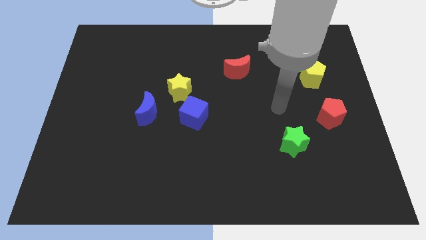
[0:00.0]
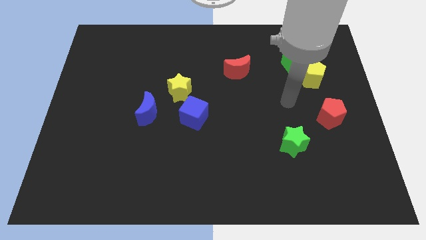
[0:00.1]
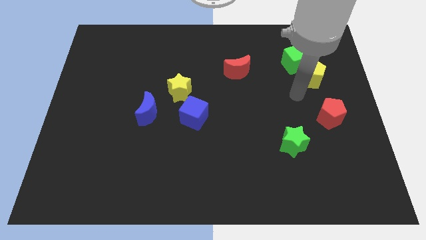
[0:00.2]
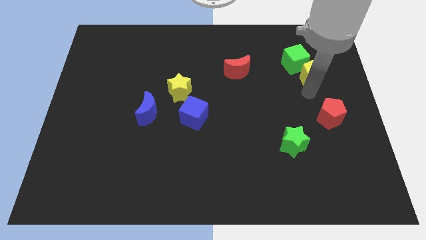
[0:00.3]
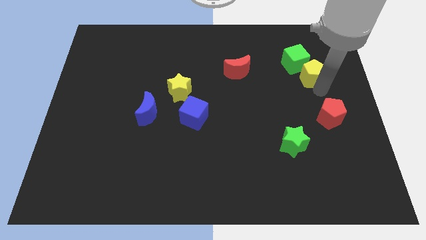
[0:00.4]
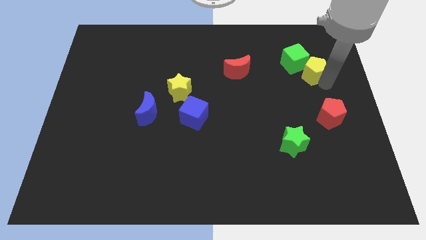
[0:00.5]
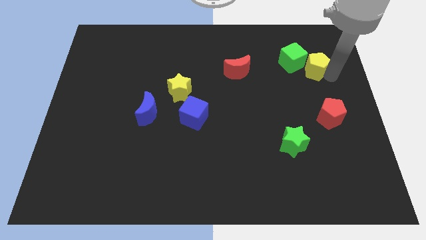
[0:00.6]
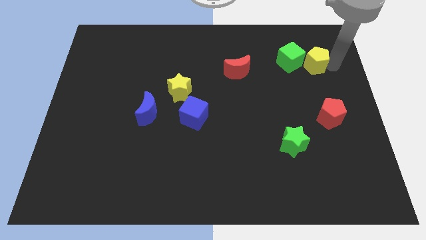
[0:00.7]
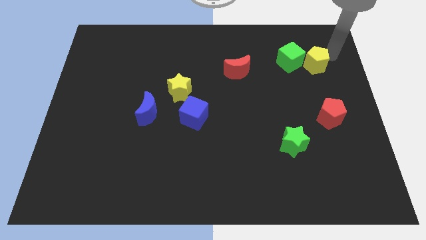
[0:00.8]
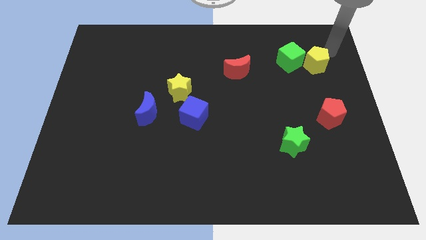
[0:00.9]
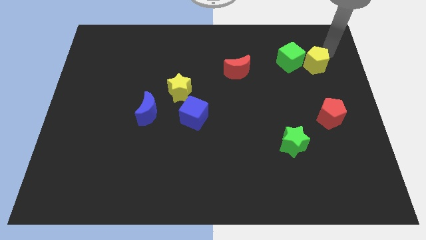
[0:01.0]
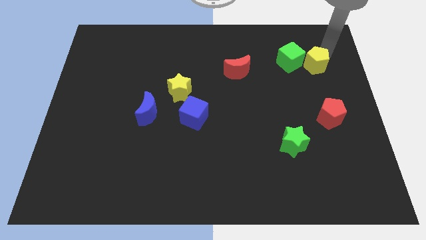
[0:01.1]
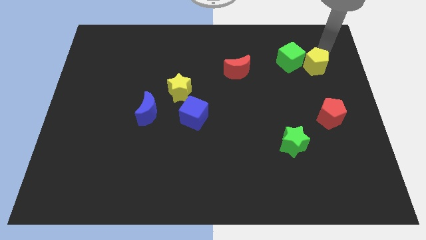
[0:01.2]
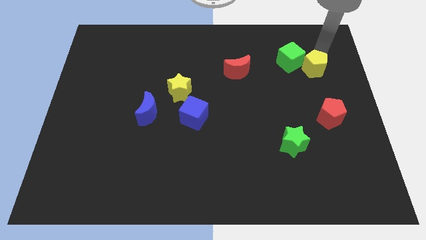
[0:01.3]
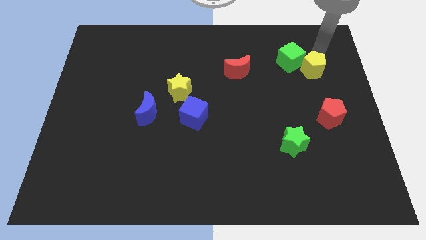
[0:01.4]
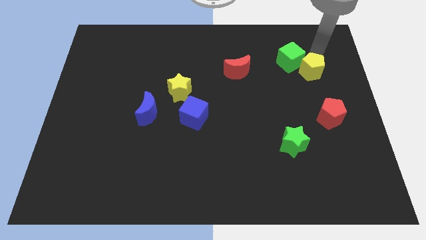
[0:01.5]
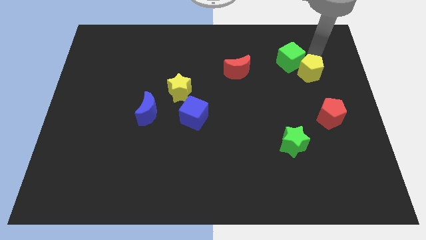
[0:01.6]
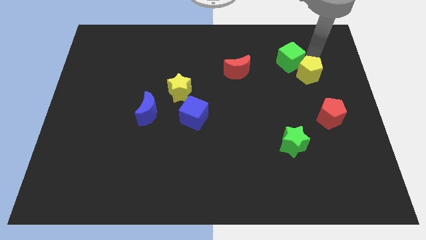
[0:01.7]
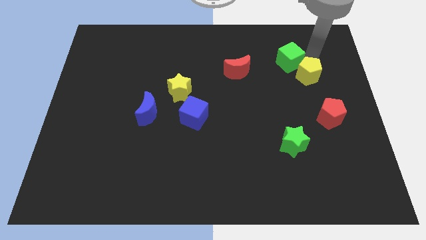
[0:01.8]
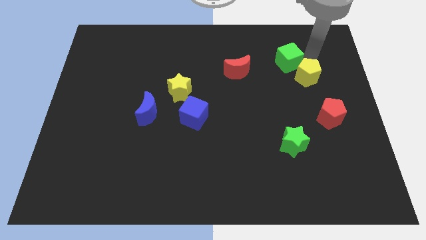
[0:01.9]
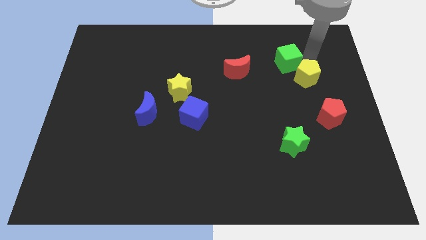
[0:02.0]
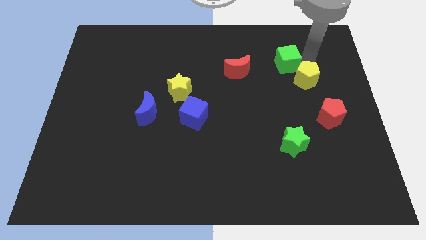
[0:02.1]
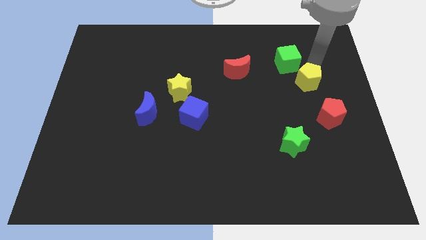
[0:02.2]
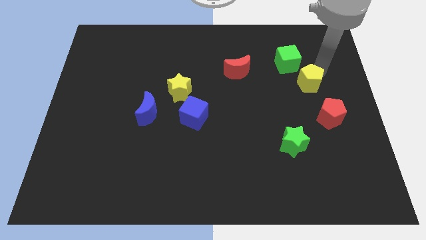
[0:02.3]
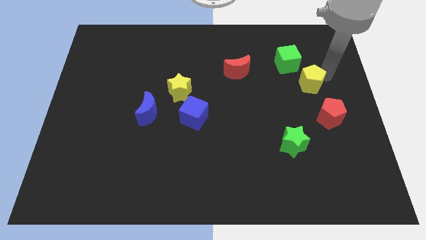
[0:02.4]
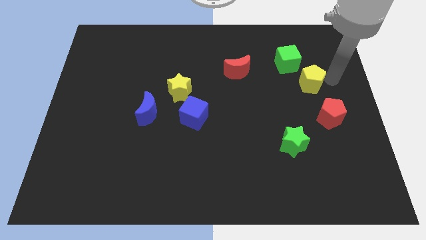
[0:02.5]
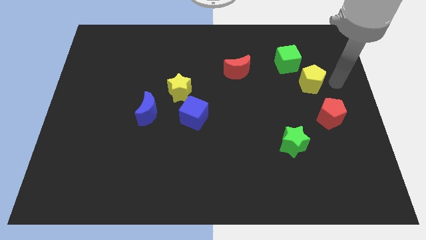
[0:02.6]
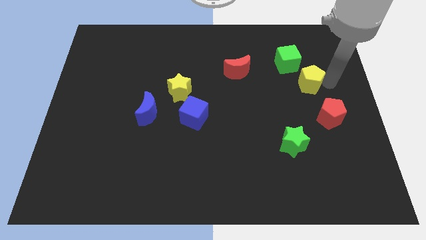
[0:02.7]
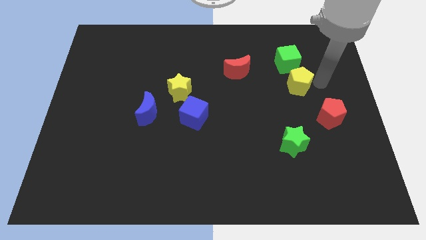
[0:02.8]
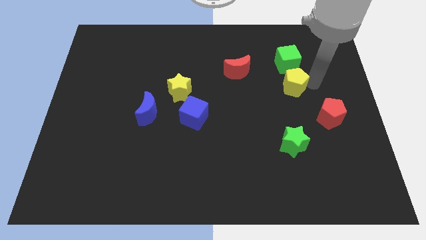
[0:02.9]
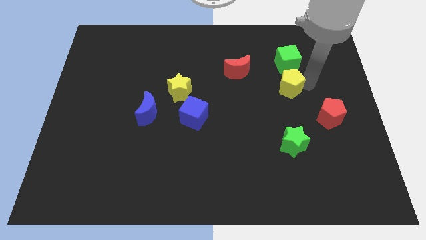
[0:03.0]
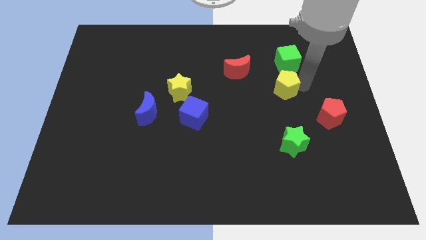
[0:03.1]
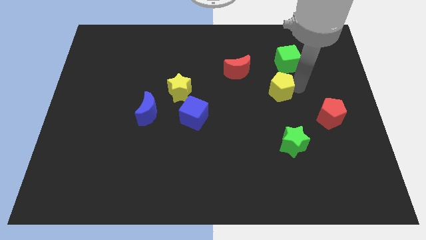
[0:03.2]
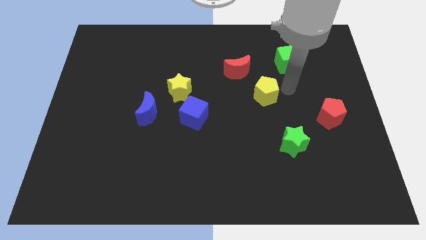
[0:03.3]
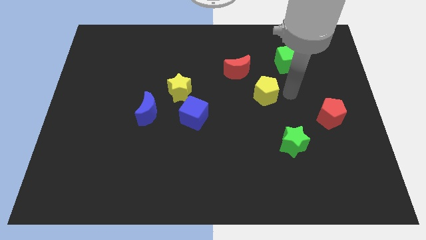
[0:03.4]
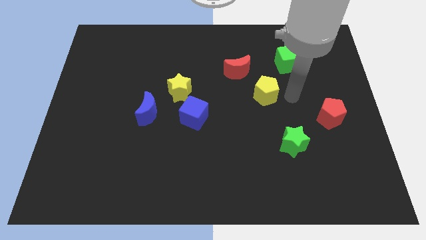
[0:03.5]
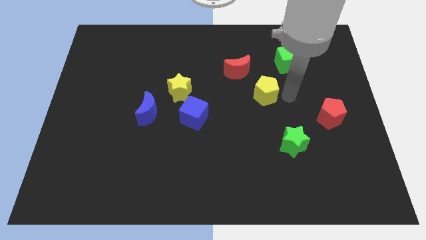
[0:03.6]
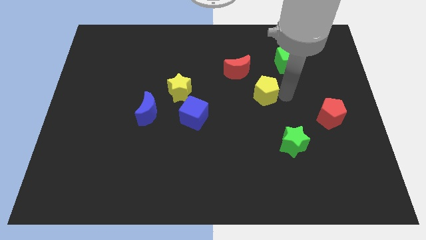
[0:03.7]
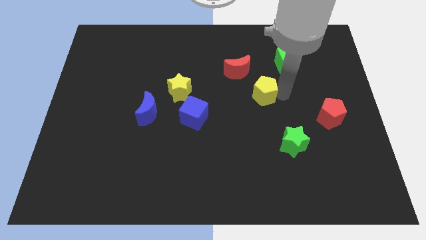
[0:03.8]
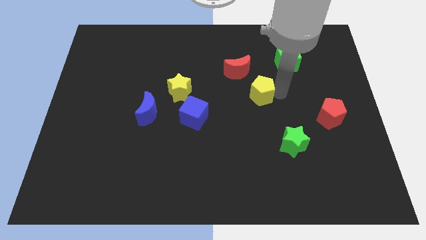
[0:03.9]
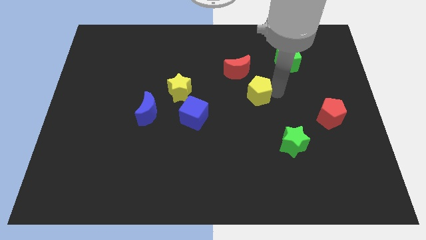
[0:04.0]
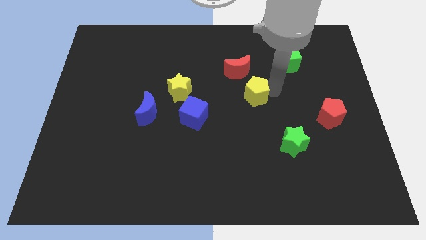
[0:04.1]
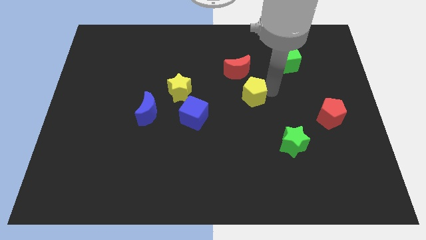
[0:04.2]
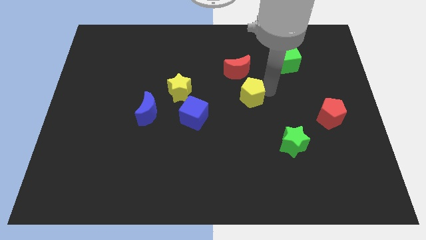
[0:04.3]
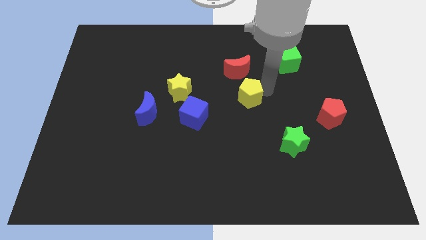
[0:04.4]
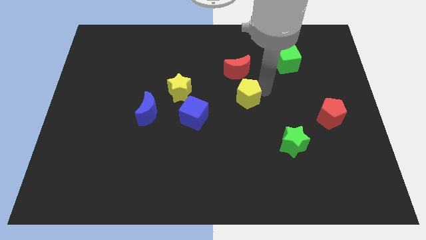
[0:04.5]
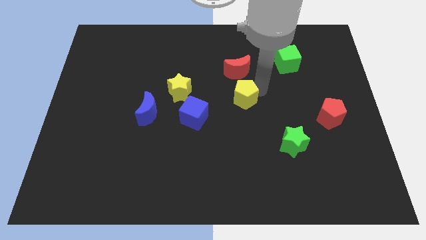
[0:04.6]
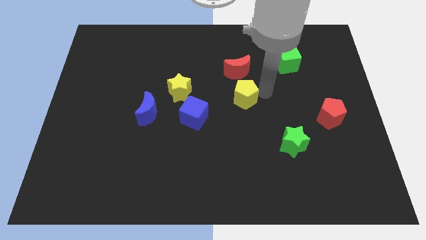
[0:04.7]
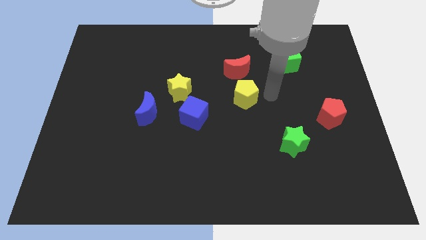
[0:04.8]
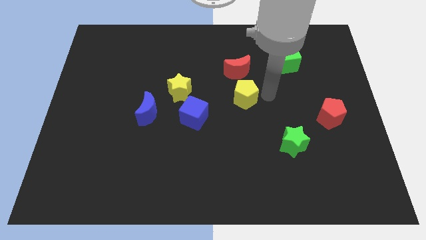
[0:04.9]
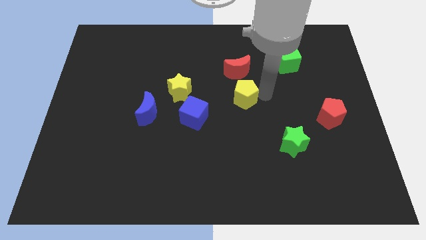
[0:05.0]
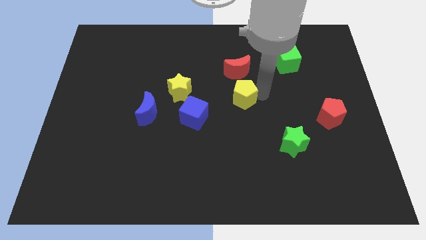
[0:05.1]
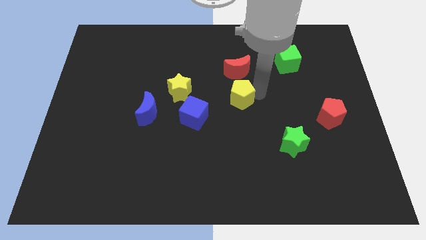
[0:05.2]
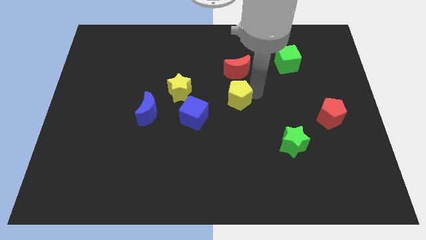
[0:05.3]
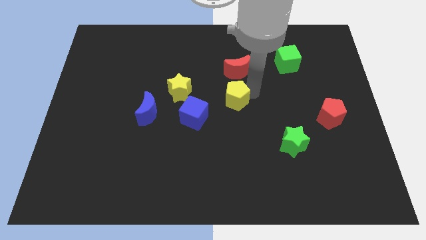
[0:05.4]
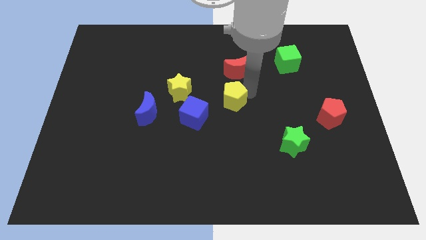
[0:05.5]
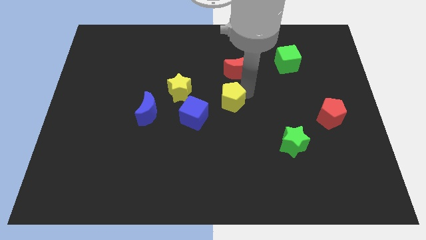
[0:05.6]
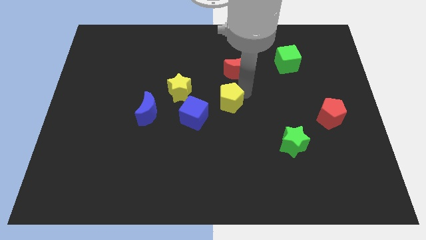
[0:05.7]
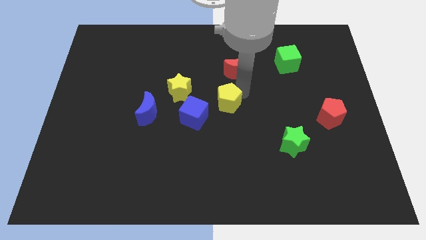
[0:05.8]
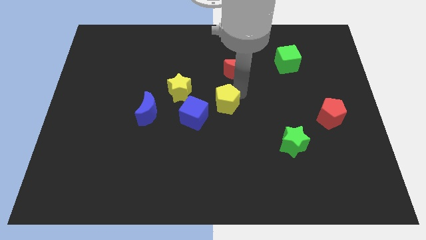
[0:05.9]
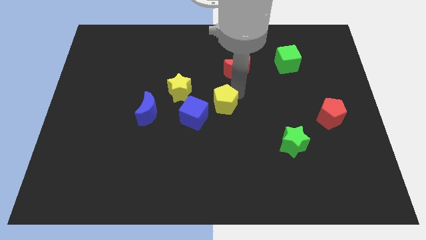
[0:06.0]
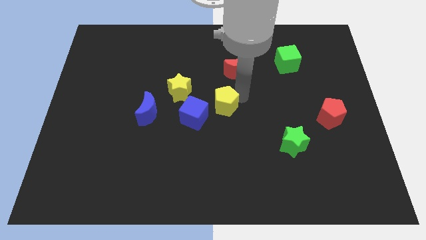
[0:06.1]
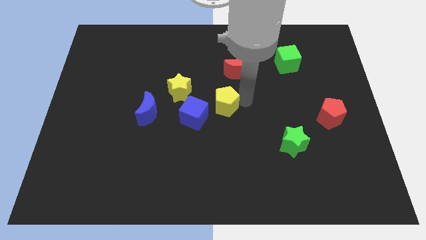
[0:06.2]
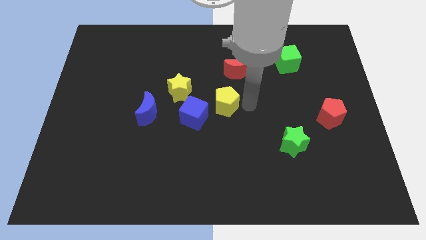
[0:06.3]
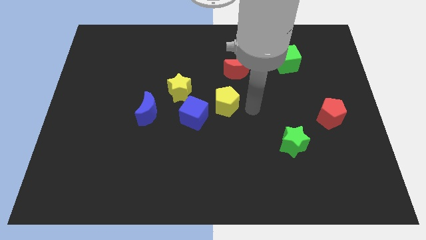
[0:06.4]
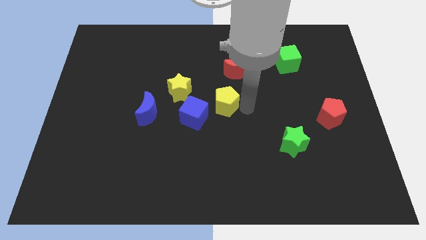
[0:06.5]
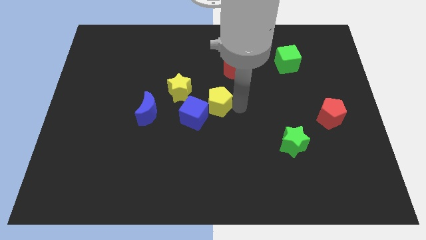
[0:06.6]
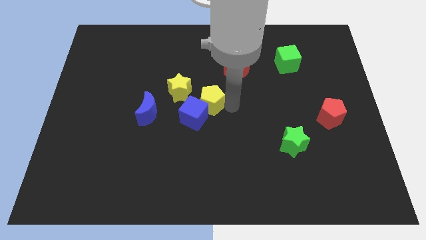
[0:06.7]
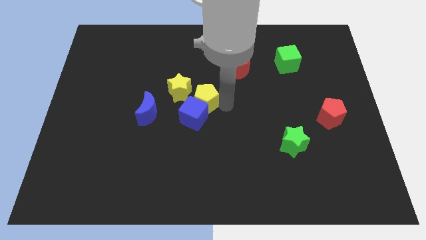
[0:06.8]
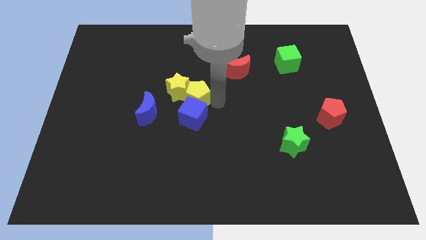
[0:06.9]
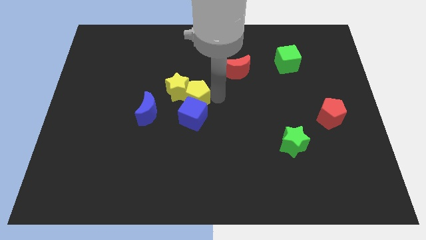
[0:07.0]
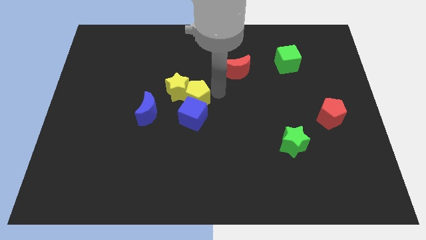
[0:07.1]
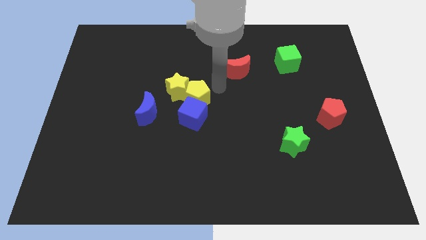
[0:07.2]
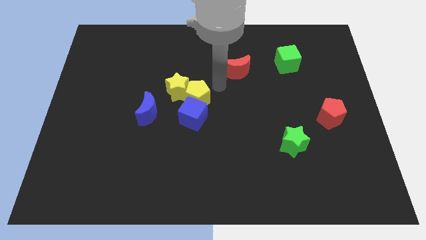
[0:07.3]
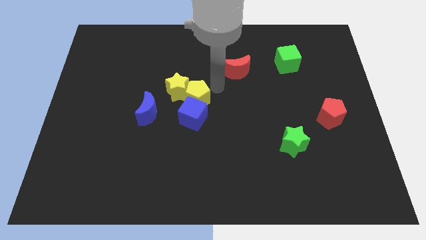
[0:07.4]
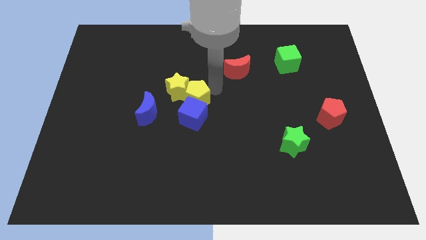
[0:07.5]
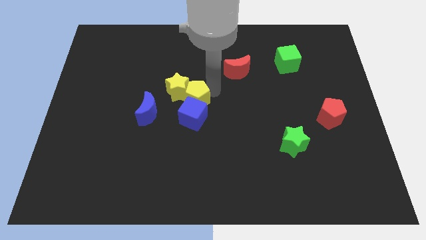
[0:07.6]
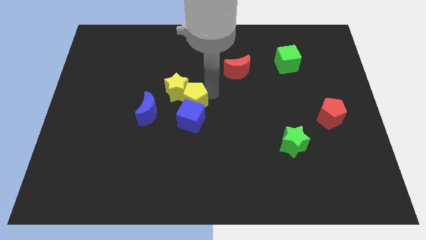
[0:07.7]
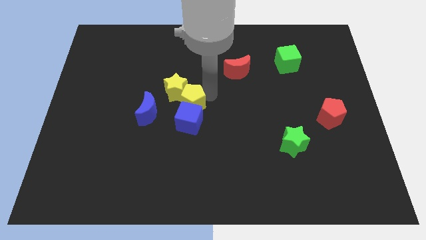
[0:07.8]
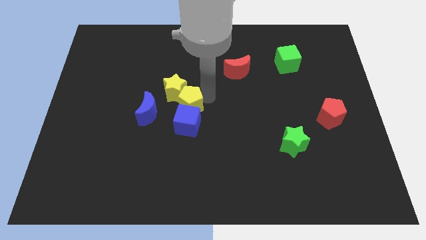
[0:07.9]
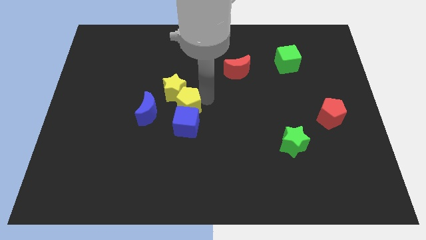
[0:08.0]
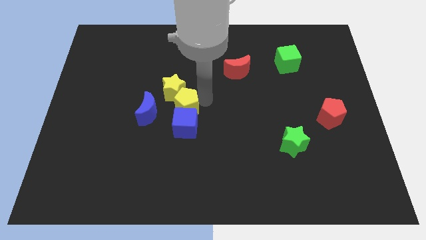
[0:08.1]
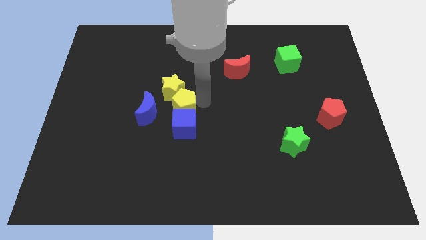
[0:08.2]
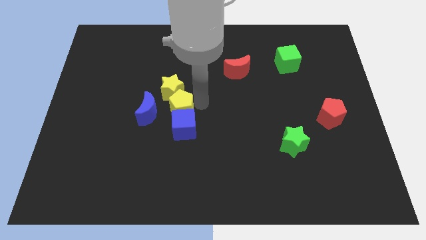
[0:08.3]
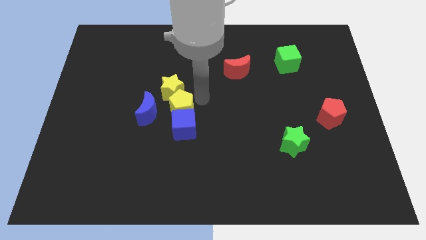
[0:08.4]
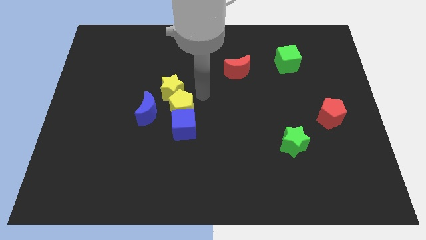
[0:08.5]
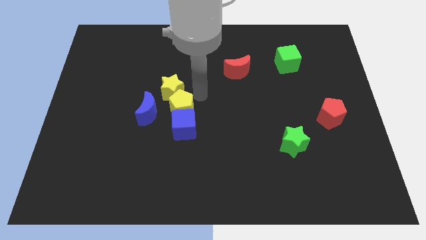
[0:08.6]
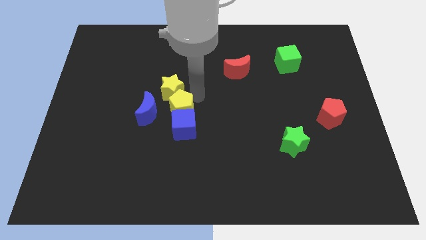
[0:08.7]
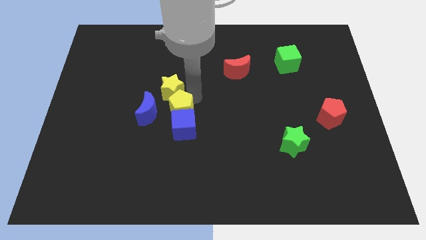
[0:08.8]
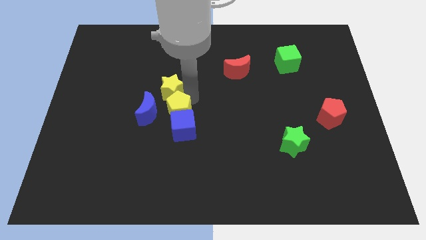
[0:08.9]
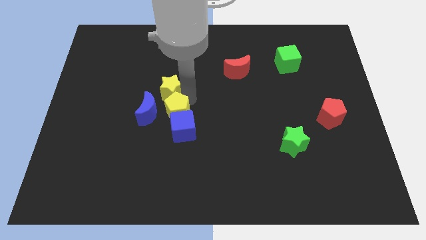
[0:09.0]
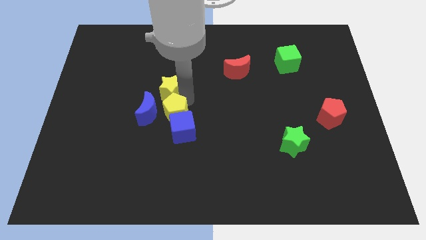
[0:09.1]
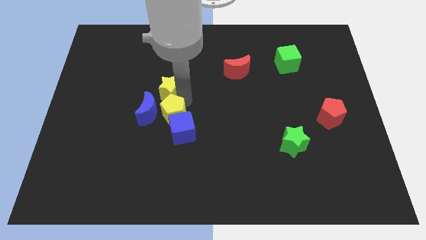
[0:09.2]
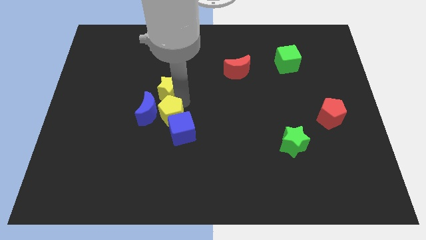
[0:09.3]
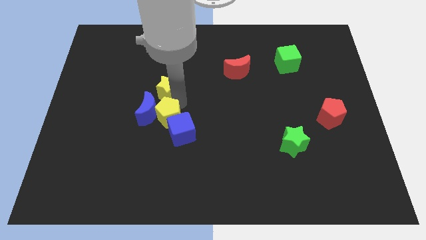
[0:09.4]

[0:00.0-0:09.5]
push the yellow pentagon left of the blue cube
